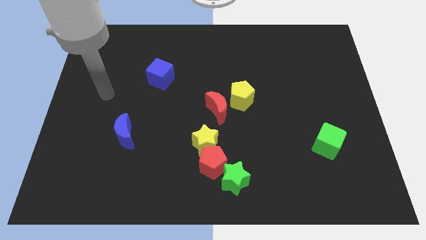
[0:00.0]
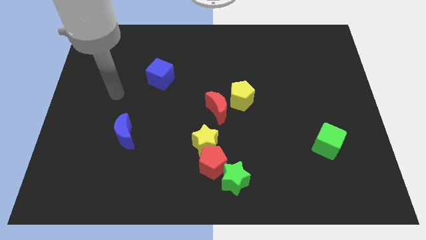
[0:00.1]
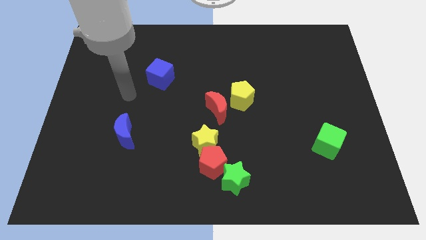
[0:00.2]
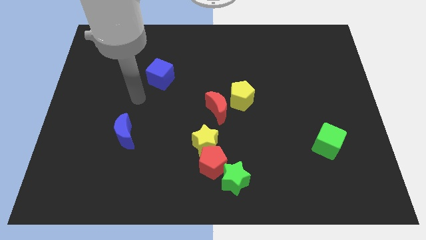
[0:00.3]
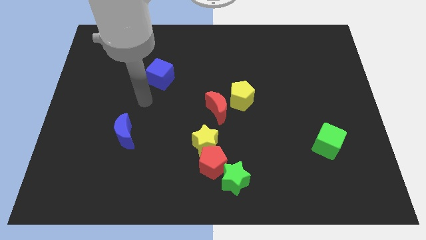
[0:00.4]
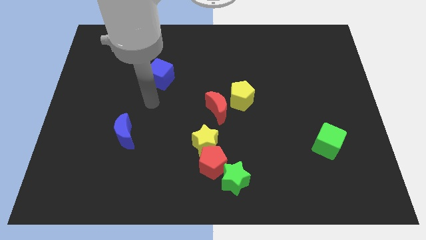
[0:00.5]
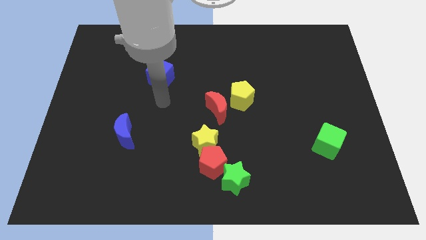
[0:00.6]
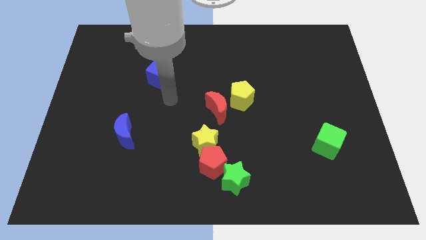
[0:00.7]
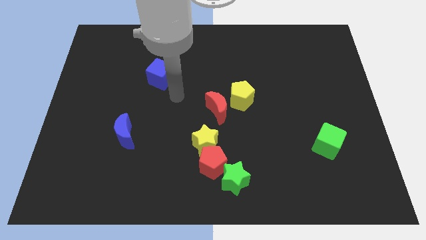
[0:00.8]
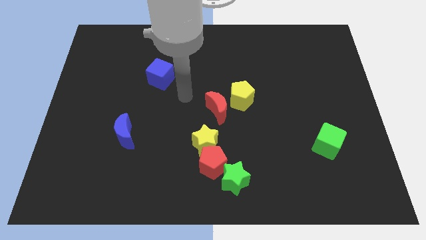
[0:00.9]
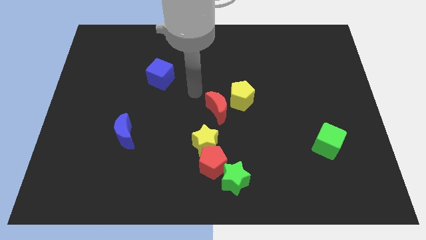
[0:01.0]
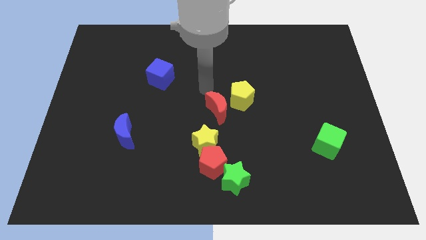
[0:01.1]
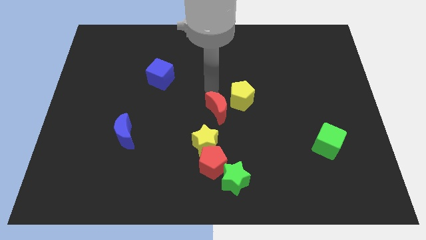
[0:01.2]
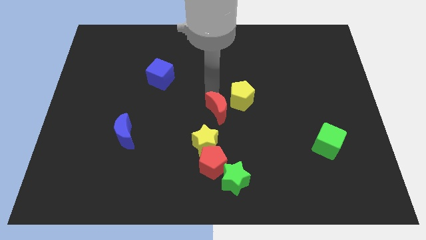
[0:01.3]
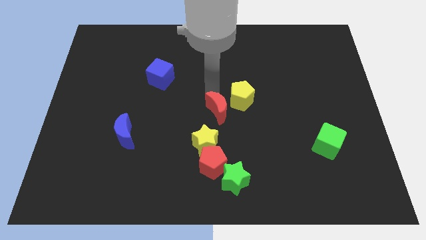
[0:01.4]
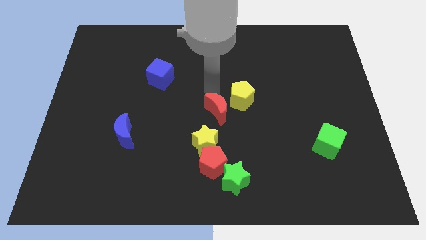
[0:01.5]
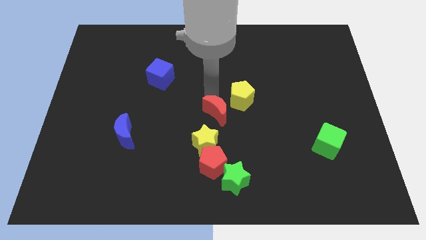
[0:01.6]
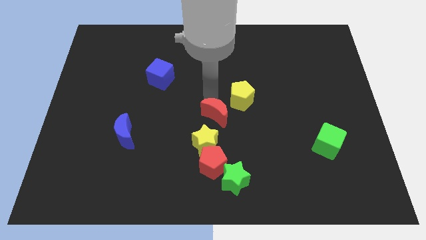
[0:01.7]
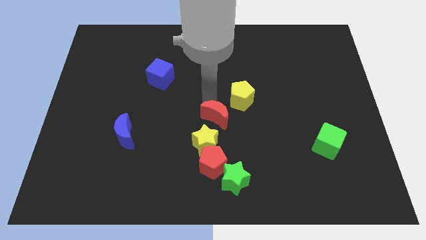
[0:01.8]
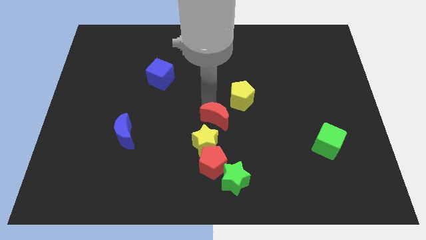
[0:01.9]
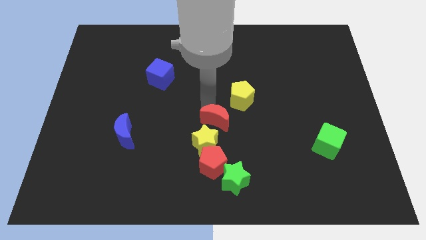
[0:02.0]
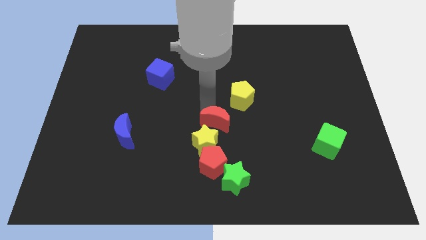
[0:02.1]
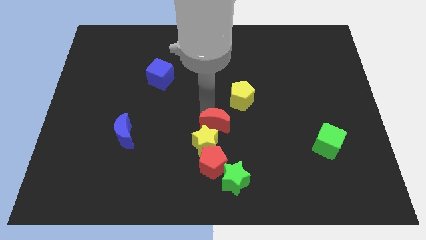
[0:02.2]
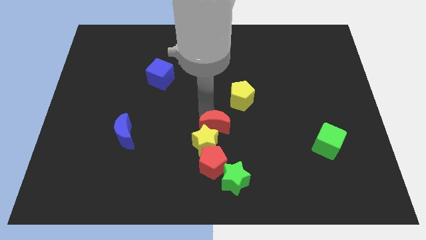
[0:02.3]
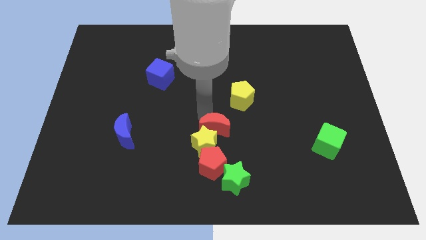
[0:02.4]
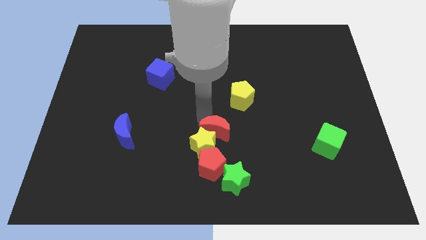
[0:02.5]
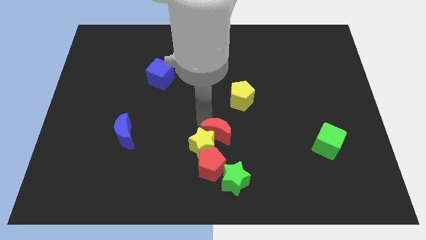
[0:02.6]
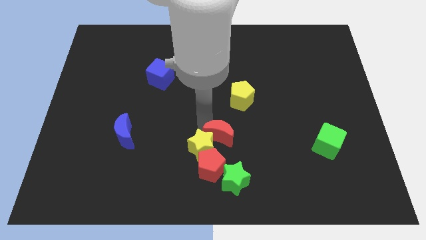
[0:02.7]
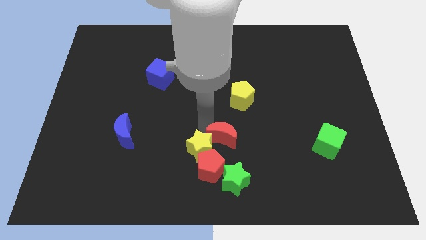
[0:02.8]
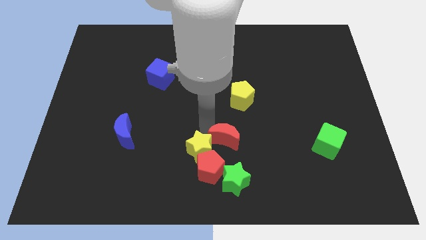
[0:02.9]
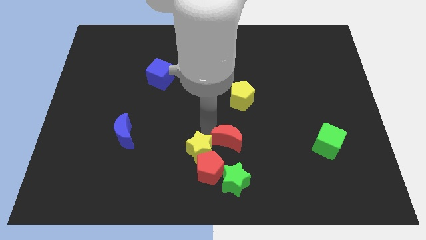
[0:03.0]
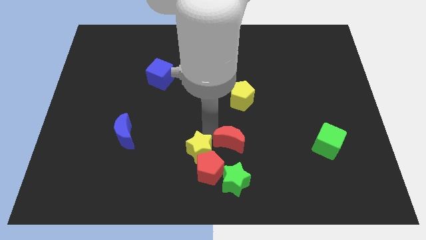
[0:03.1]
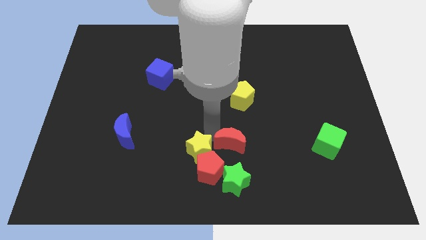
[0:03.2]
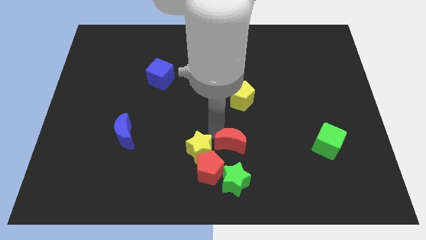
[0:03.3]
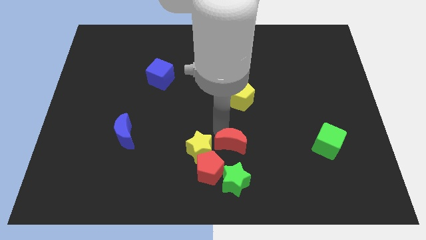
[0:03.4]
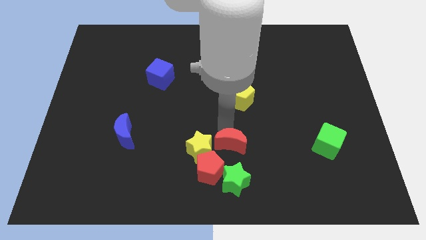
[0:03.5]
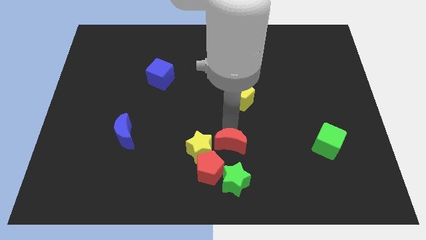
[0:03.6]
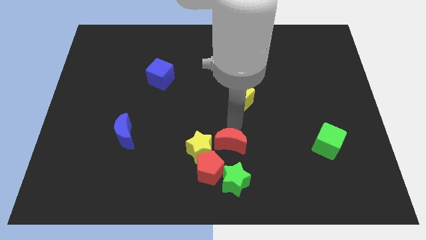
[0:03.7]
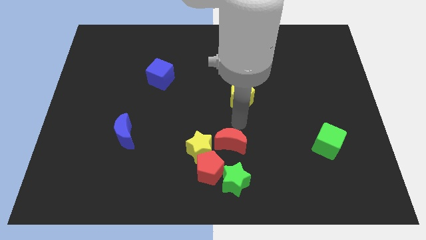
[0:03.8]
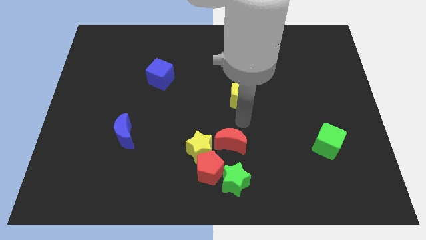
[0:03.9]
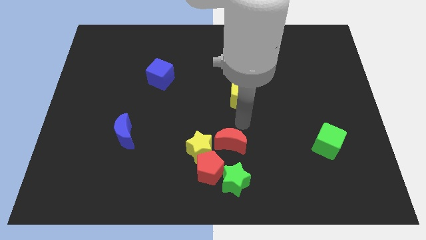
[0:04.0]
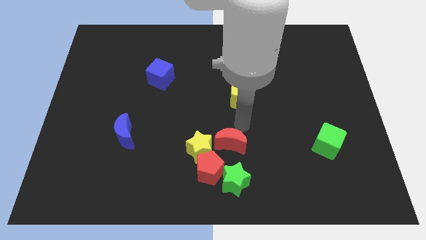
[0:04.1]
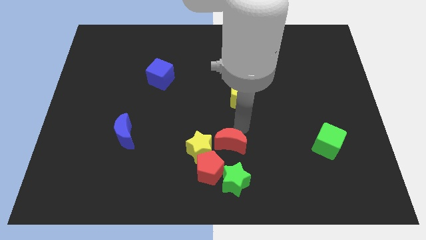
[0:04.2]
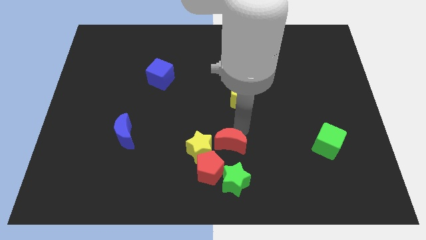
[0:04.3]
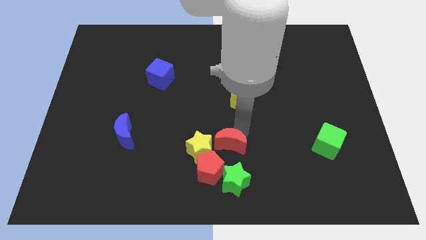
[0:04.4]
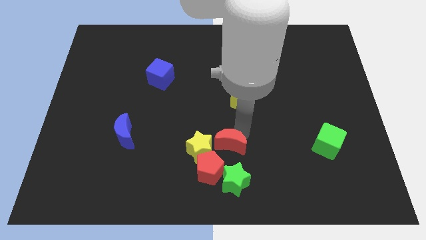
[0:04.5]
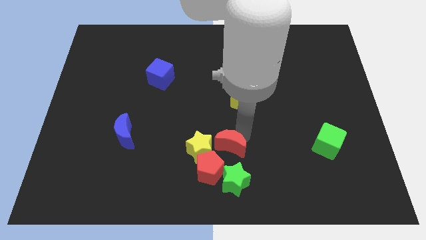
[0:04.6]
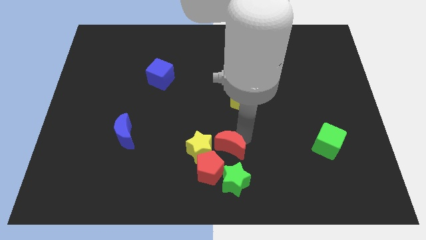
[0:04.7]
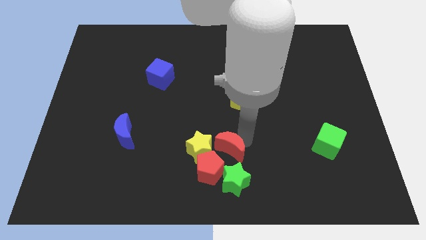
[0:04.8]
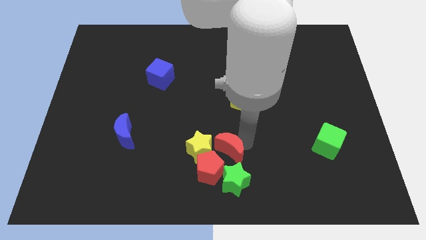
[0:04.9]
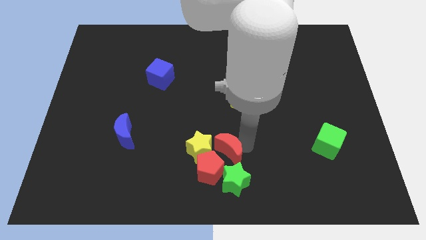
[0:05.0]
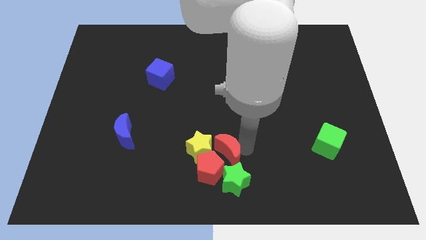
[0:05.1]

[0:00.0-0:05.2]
slide the red moon to the red pentagon

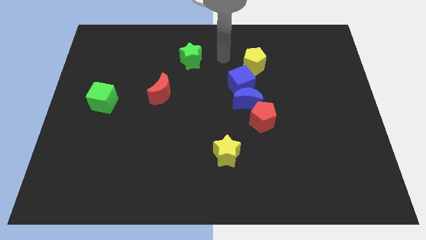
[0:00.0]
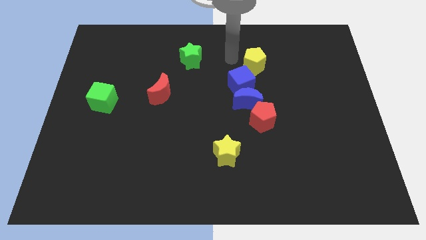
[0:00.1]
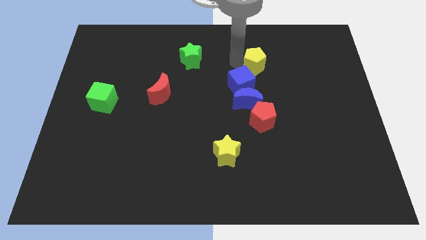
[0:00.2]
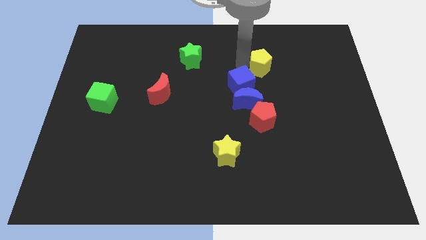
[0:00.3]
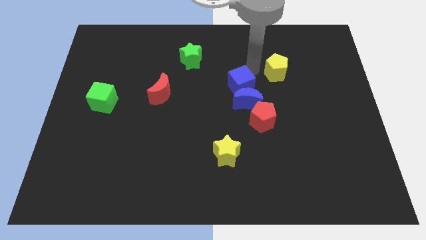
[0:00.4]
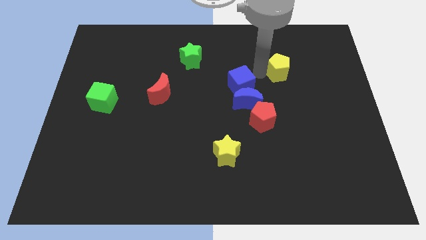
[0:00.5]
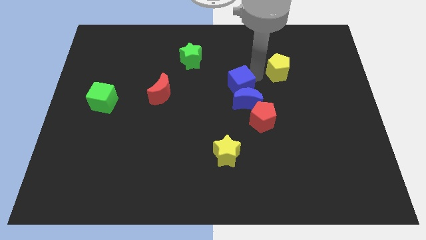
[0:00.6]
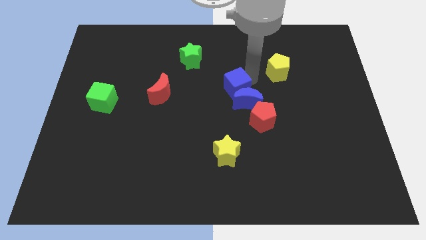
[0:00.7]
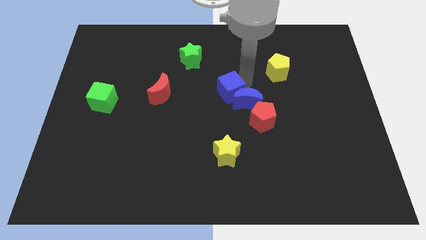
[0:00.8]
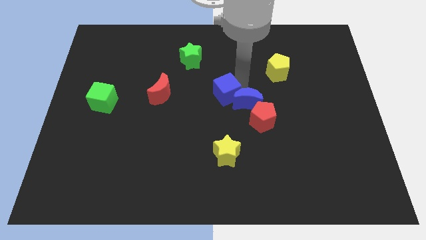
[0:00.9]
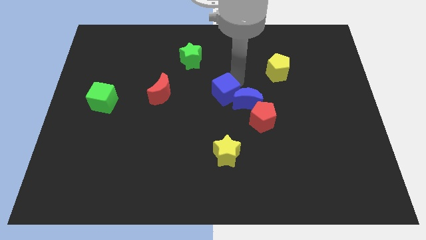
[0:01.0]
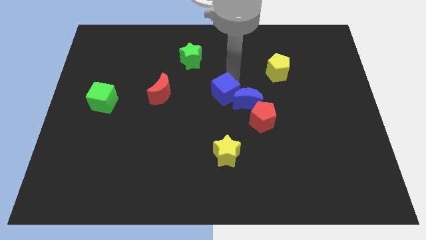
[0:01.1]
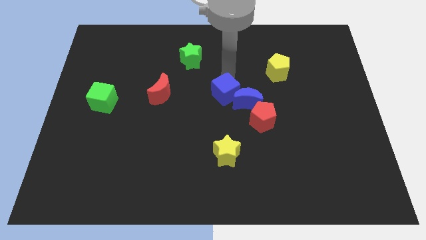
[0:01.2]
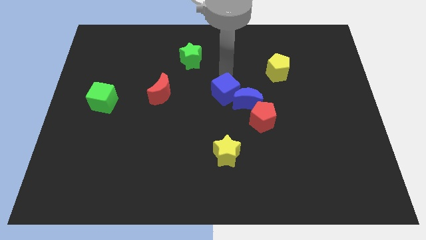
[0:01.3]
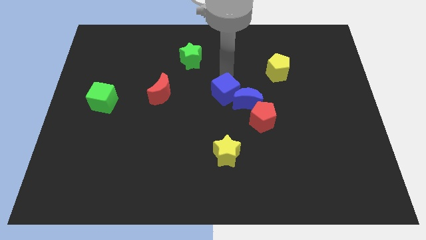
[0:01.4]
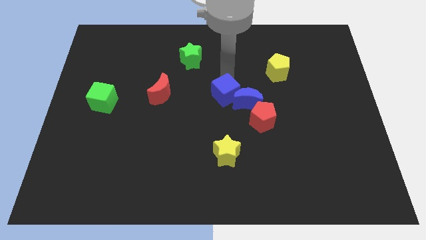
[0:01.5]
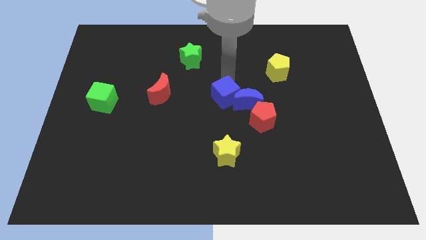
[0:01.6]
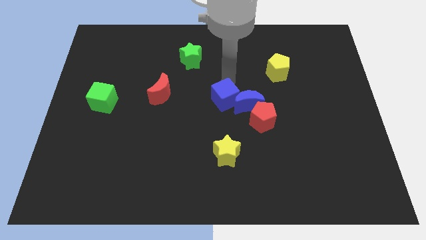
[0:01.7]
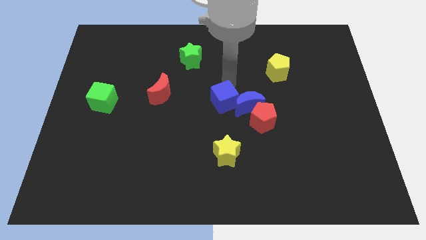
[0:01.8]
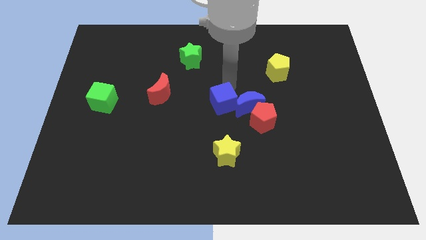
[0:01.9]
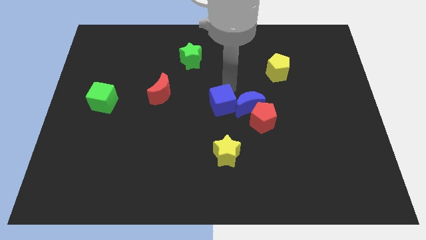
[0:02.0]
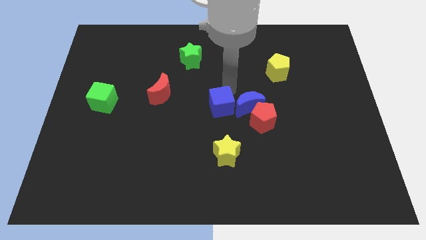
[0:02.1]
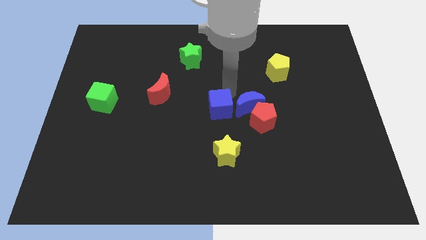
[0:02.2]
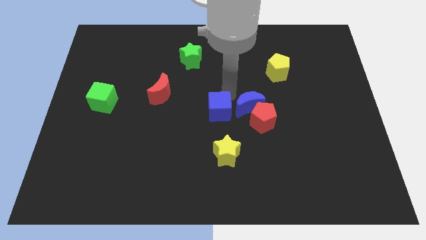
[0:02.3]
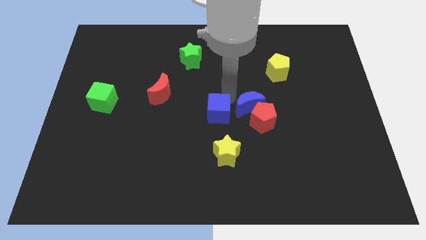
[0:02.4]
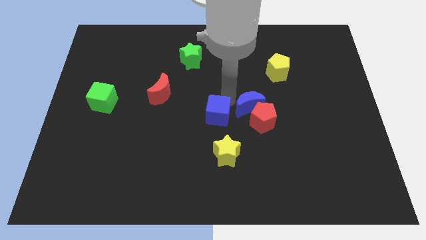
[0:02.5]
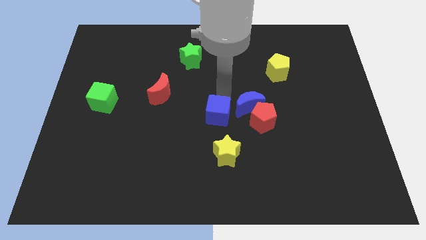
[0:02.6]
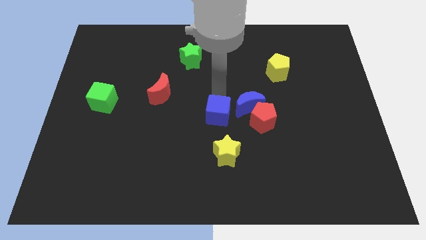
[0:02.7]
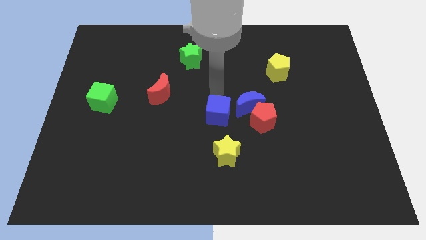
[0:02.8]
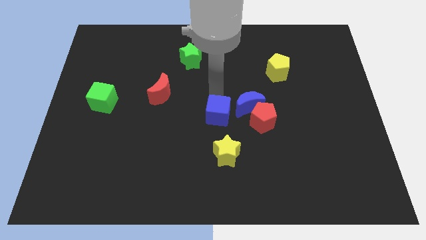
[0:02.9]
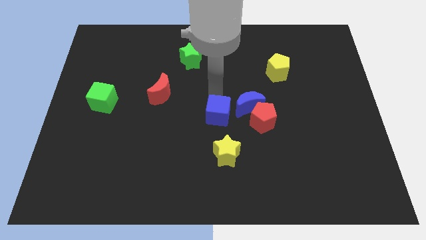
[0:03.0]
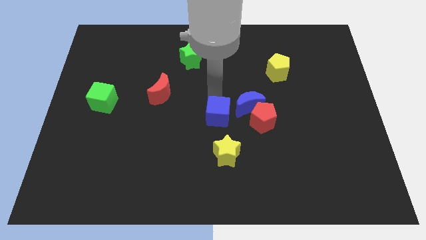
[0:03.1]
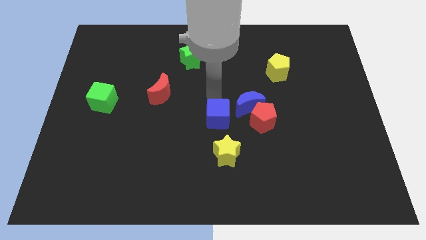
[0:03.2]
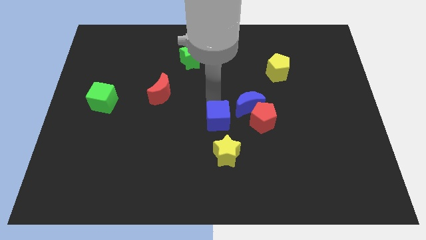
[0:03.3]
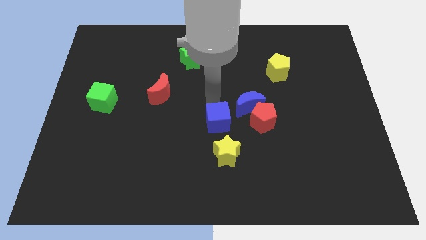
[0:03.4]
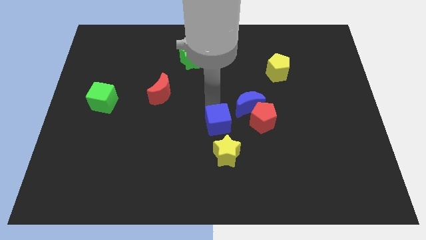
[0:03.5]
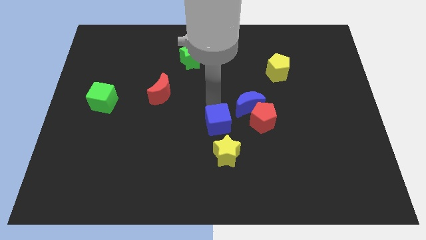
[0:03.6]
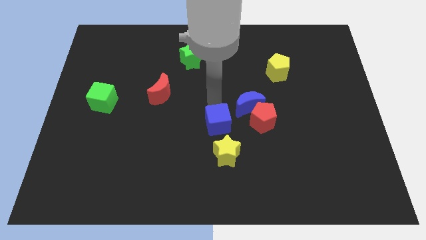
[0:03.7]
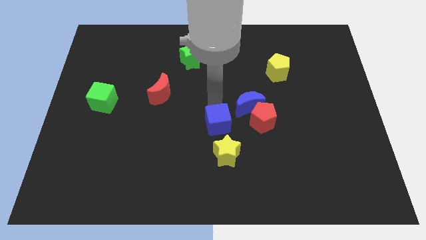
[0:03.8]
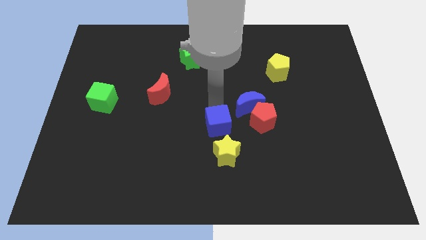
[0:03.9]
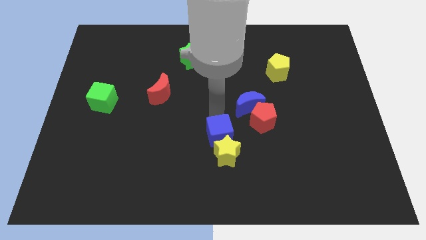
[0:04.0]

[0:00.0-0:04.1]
move the blue cube next to the yellow star
